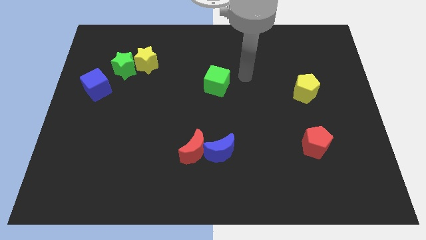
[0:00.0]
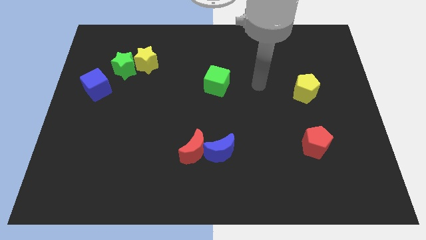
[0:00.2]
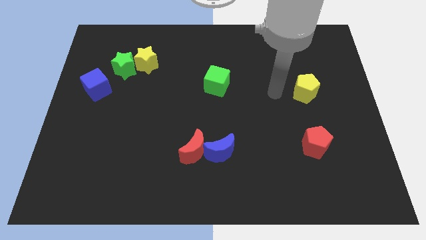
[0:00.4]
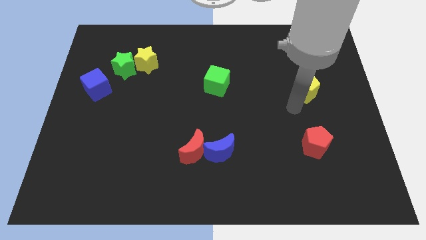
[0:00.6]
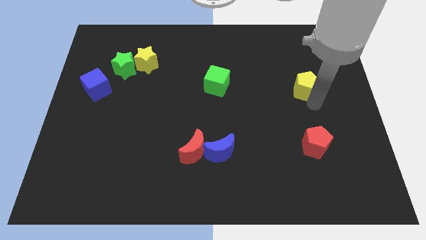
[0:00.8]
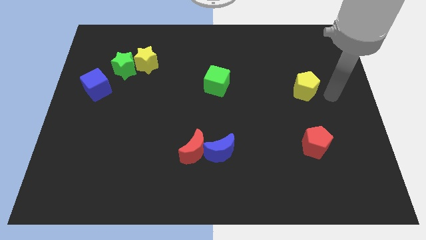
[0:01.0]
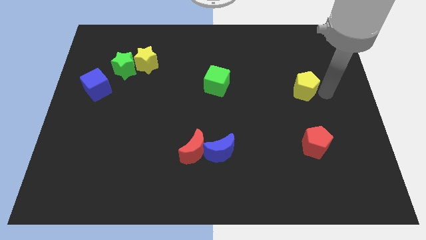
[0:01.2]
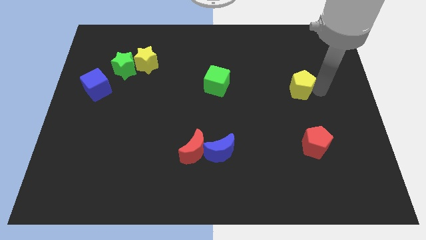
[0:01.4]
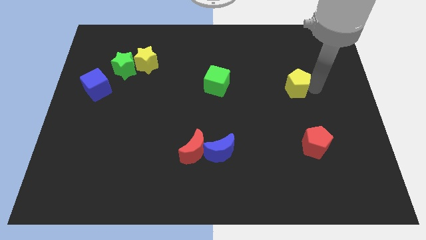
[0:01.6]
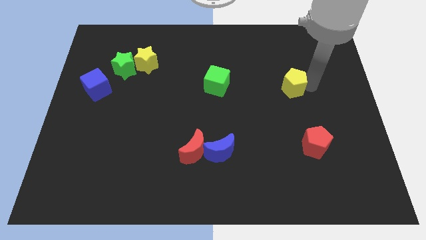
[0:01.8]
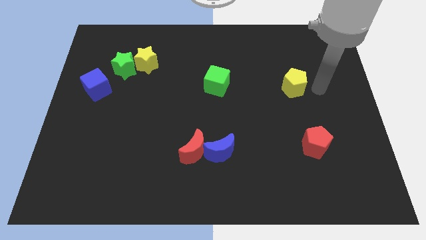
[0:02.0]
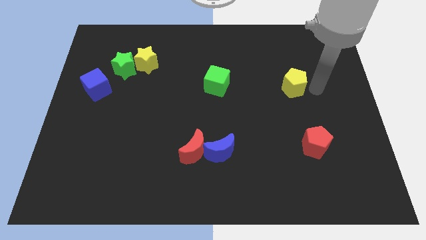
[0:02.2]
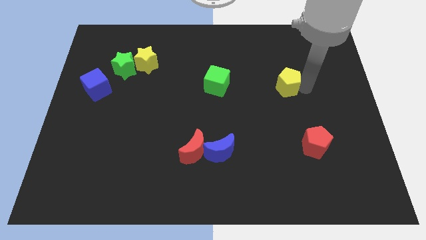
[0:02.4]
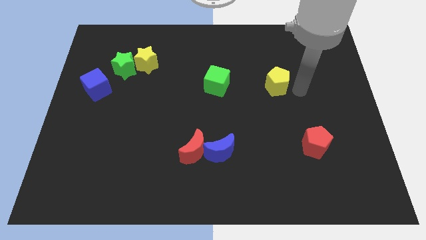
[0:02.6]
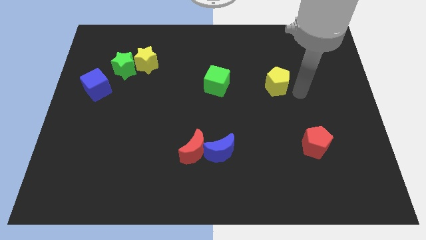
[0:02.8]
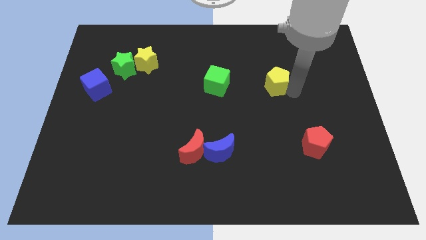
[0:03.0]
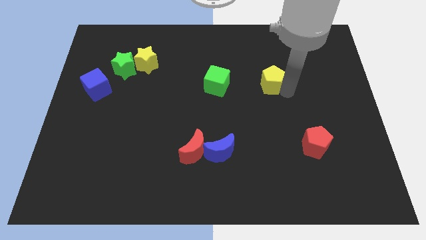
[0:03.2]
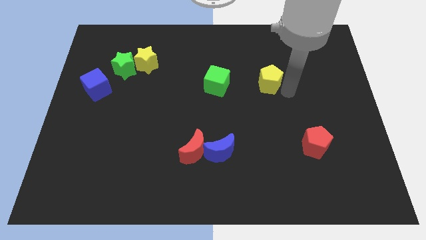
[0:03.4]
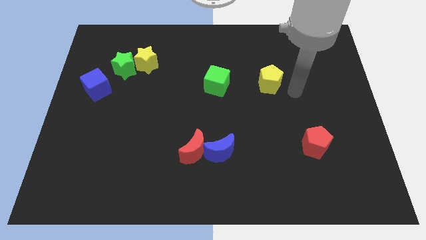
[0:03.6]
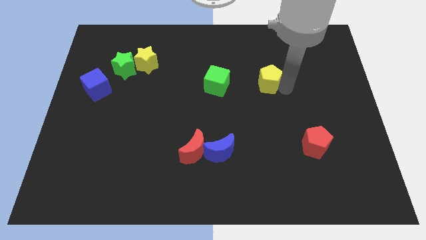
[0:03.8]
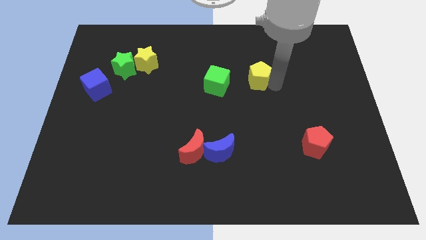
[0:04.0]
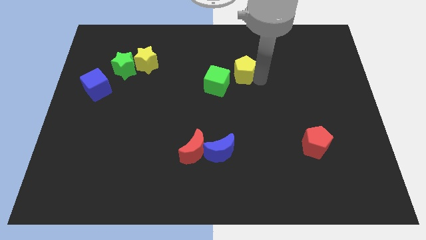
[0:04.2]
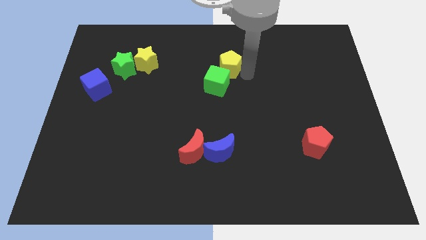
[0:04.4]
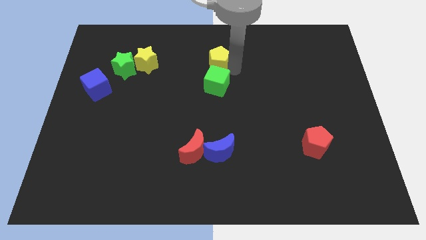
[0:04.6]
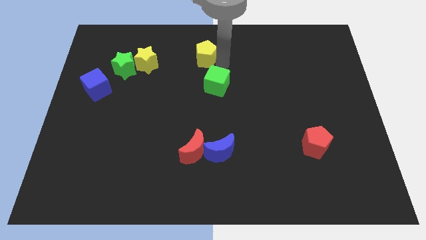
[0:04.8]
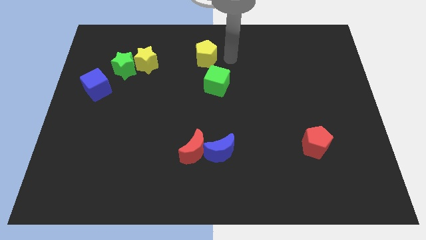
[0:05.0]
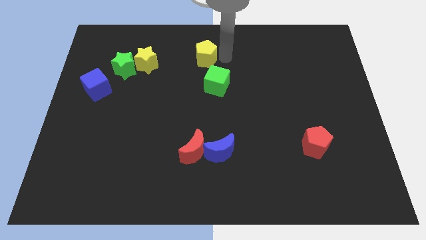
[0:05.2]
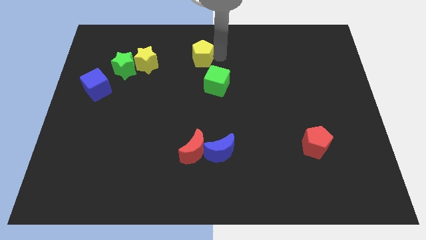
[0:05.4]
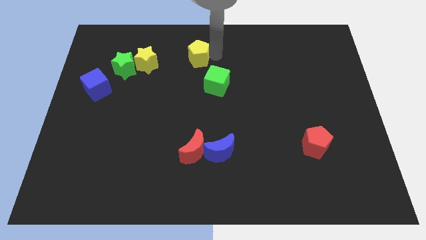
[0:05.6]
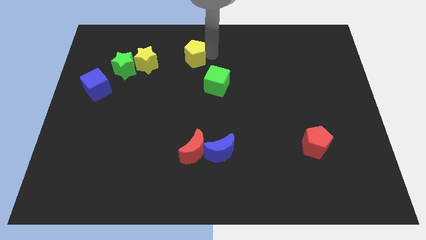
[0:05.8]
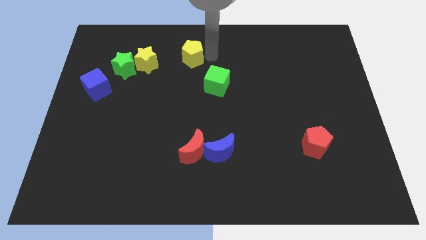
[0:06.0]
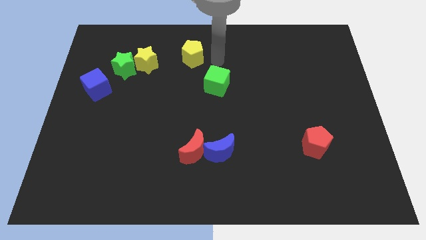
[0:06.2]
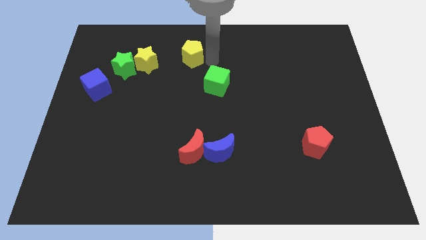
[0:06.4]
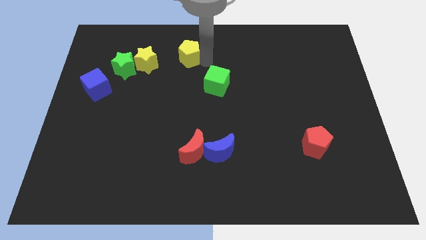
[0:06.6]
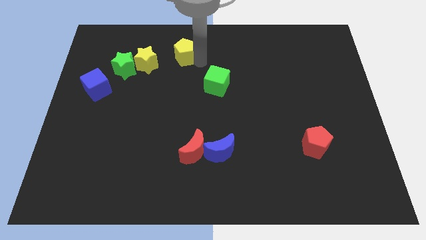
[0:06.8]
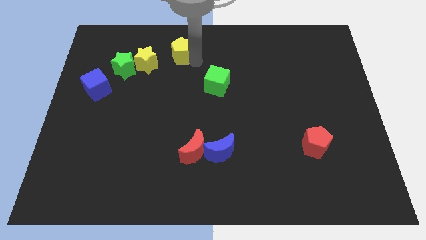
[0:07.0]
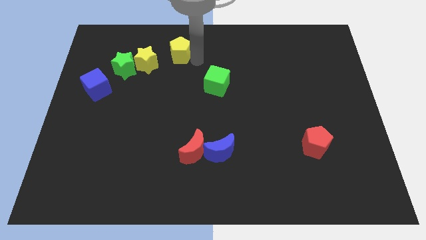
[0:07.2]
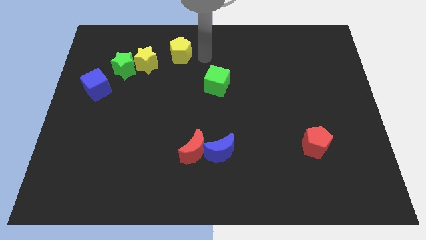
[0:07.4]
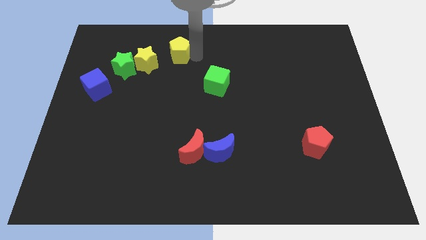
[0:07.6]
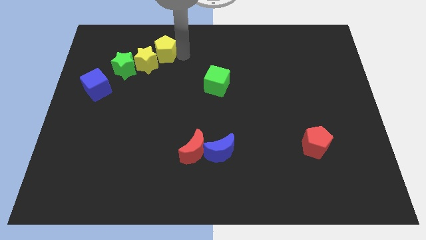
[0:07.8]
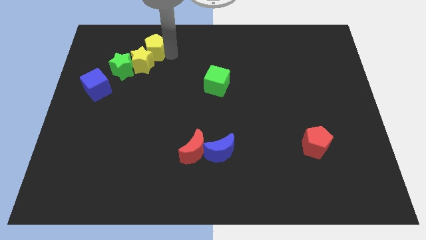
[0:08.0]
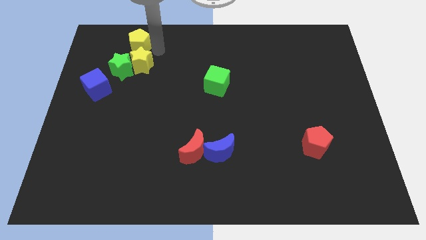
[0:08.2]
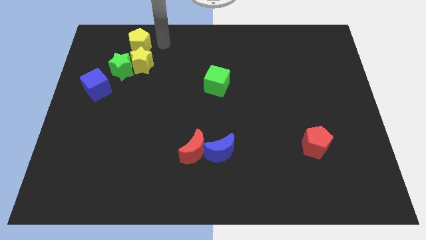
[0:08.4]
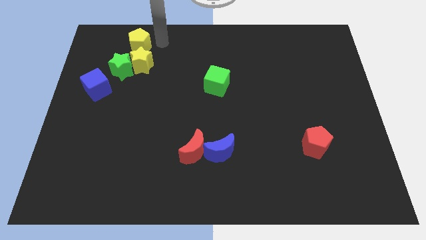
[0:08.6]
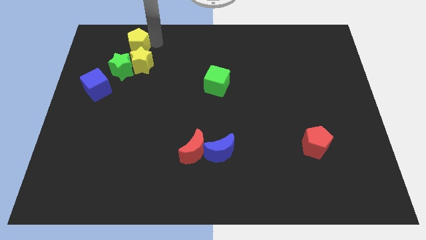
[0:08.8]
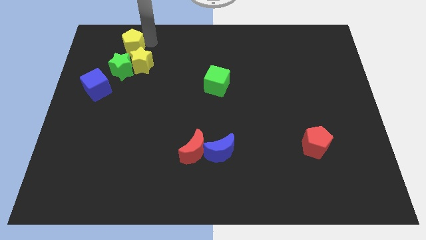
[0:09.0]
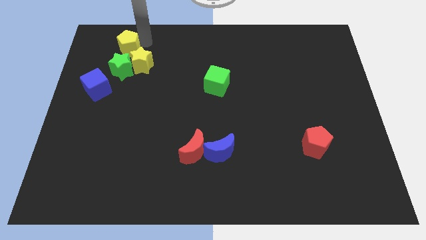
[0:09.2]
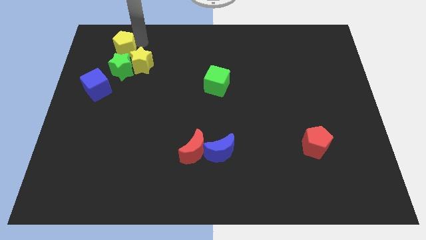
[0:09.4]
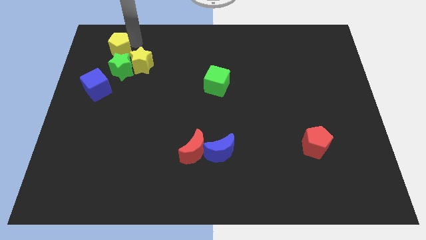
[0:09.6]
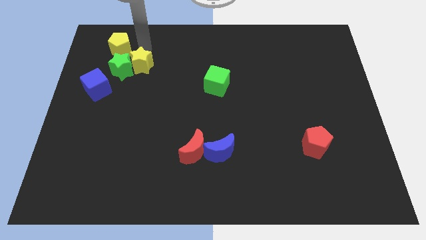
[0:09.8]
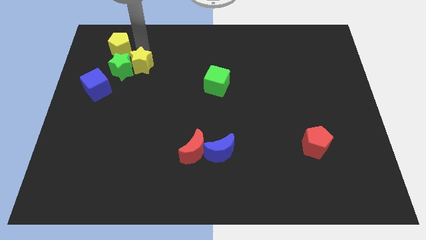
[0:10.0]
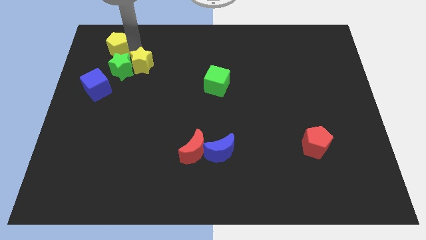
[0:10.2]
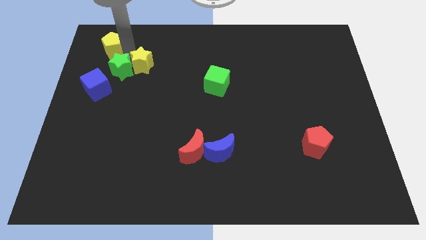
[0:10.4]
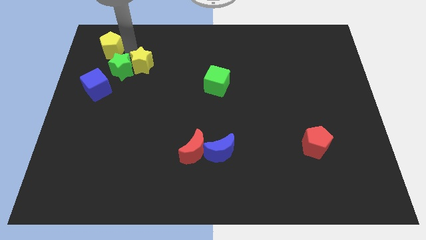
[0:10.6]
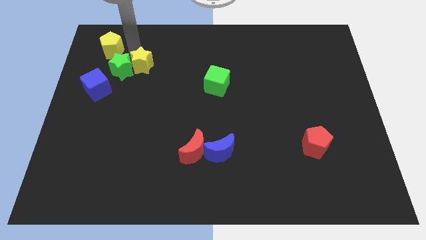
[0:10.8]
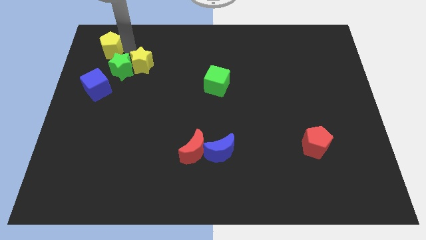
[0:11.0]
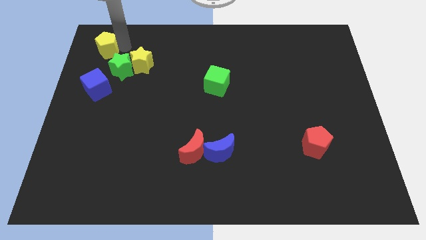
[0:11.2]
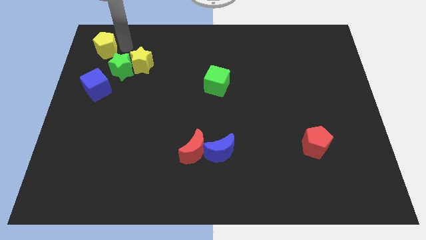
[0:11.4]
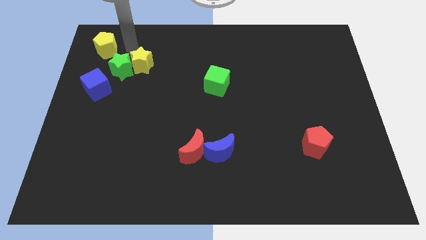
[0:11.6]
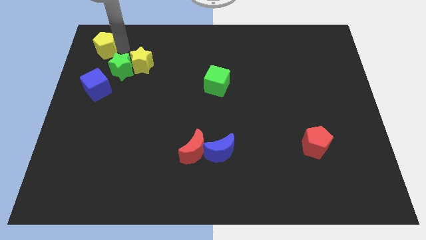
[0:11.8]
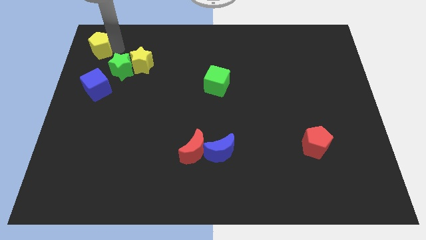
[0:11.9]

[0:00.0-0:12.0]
move the yellow pentagon to the upper left corner

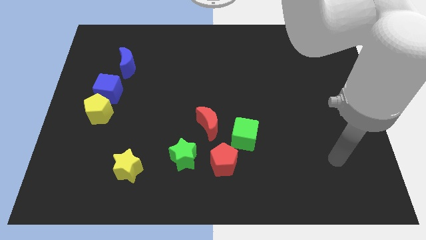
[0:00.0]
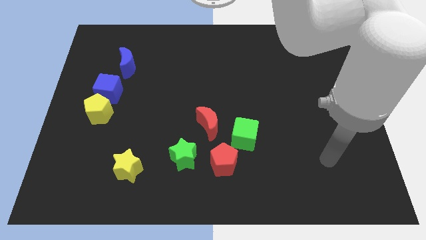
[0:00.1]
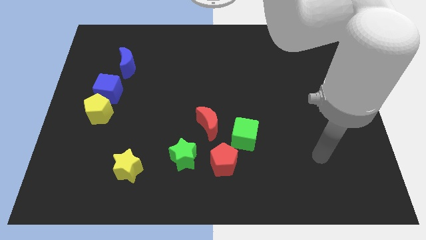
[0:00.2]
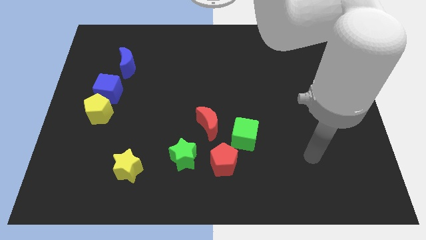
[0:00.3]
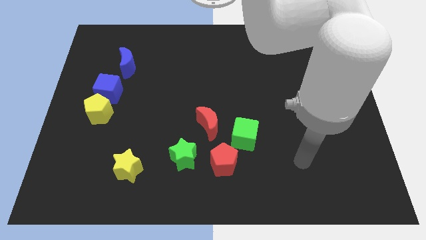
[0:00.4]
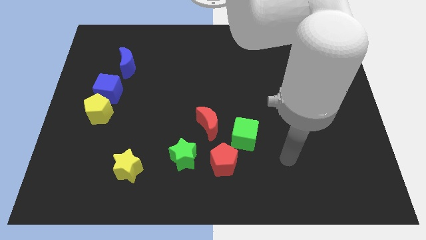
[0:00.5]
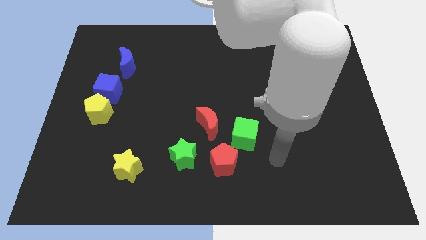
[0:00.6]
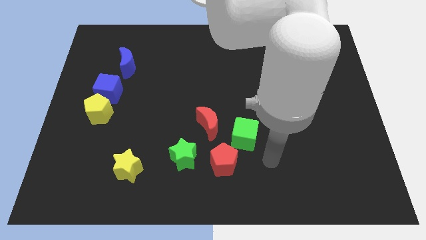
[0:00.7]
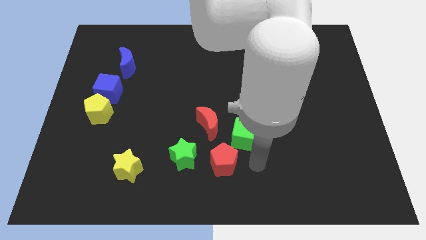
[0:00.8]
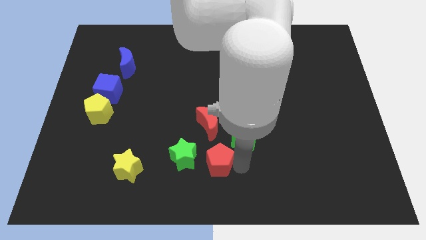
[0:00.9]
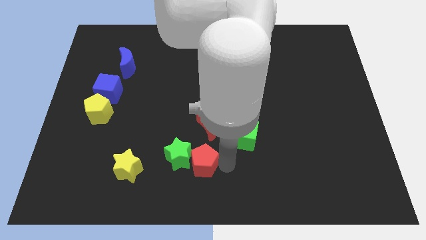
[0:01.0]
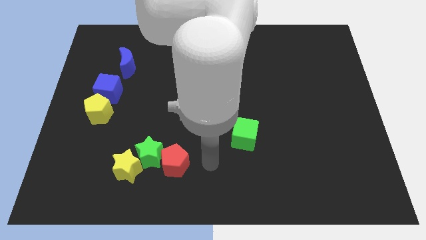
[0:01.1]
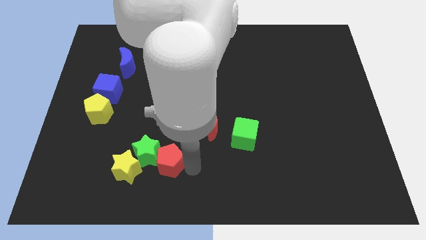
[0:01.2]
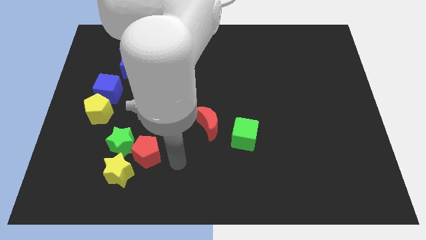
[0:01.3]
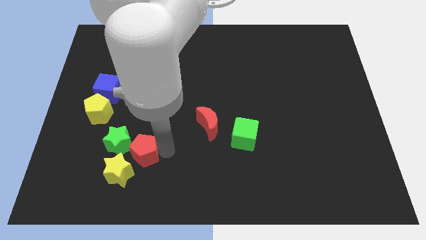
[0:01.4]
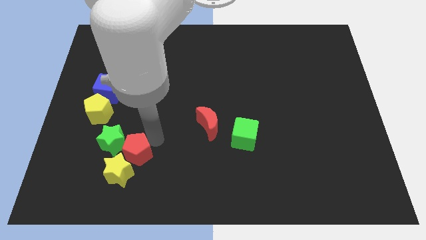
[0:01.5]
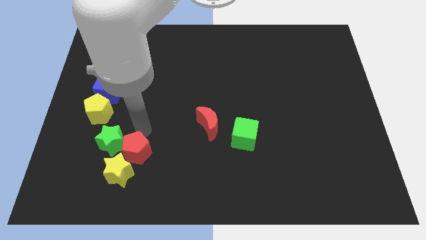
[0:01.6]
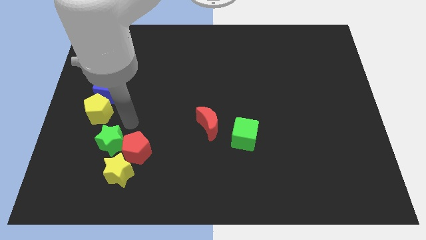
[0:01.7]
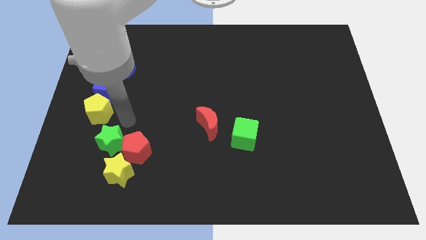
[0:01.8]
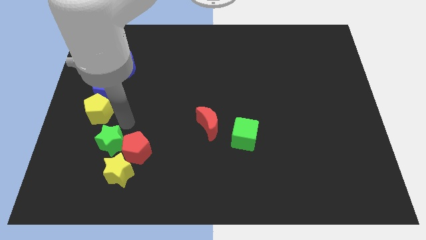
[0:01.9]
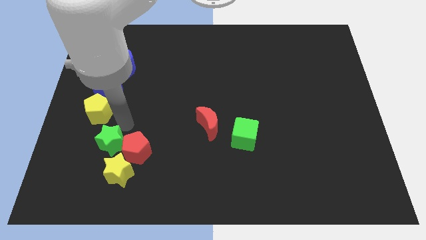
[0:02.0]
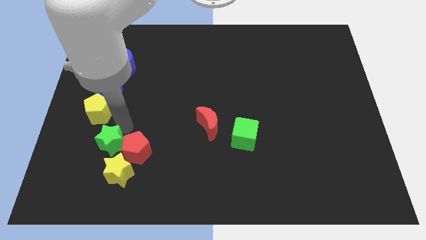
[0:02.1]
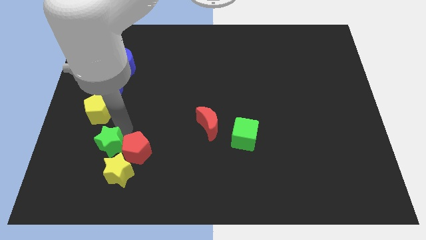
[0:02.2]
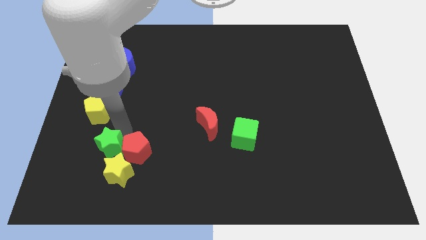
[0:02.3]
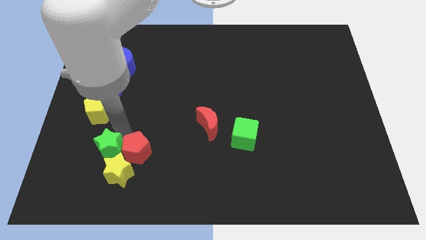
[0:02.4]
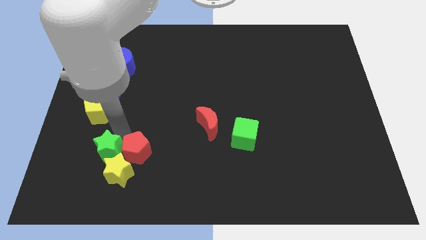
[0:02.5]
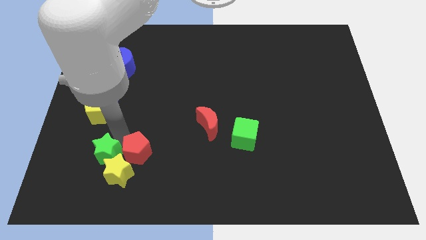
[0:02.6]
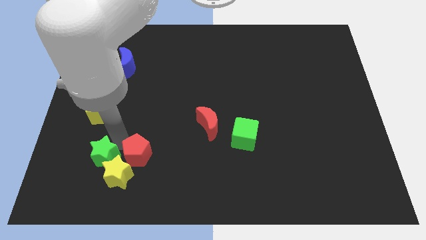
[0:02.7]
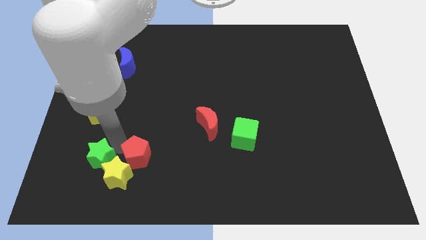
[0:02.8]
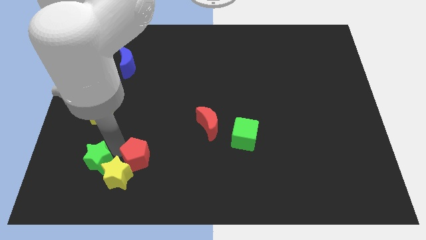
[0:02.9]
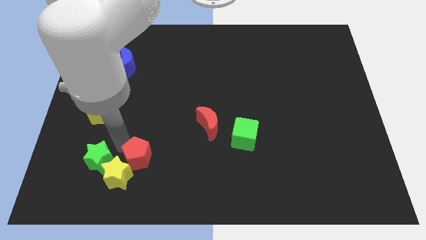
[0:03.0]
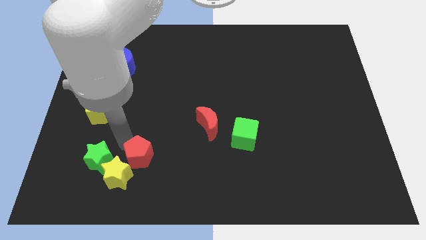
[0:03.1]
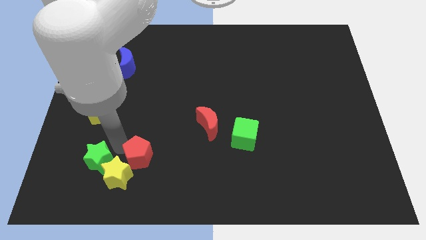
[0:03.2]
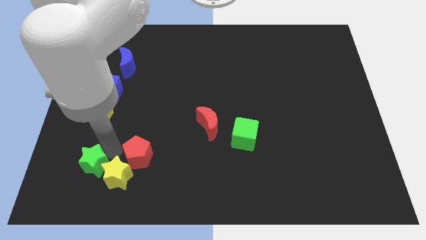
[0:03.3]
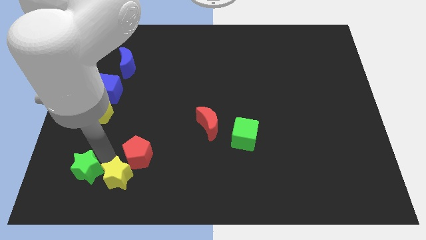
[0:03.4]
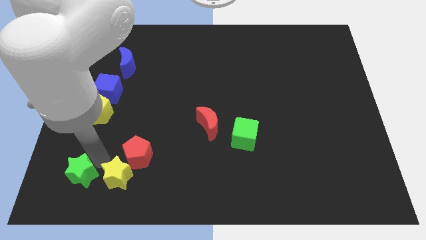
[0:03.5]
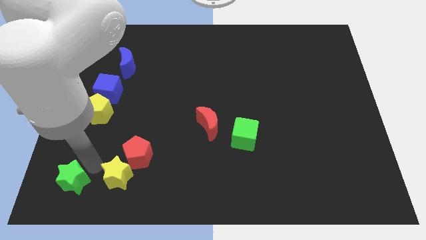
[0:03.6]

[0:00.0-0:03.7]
move the green star to the bottom left corner
